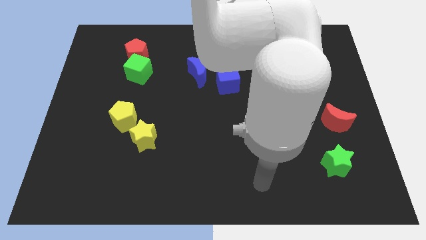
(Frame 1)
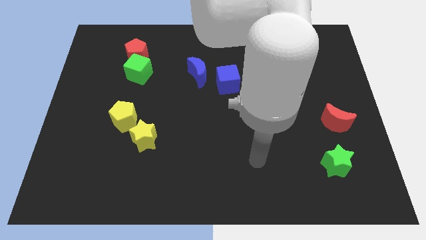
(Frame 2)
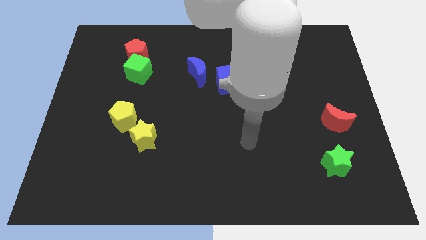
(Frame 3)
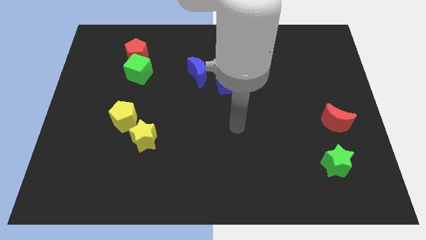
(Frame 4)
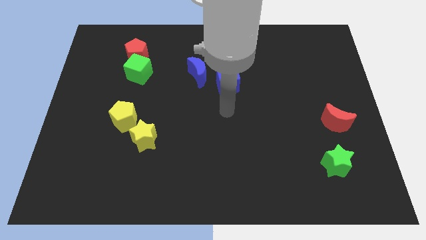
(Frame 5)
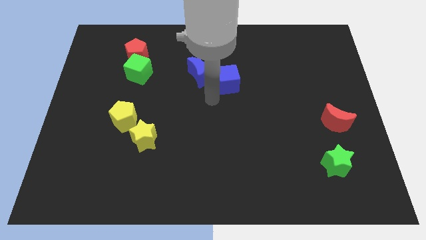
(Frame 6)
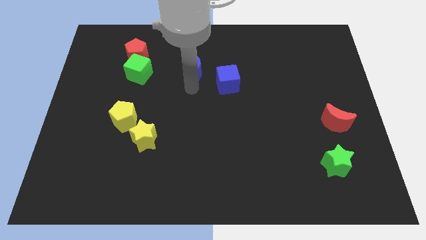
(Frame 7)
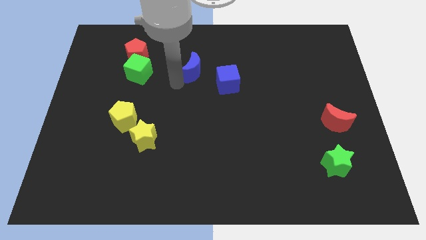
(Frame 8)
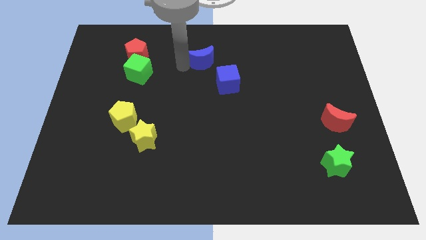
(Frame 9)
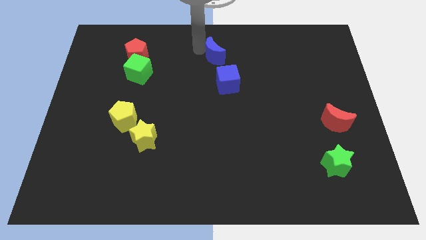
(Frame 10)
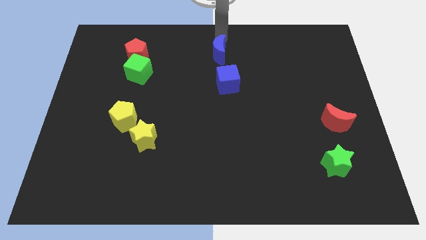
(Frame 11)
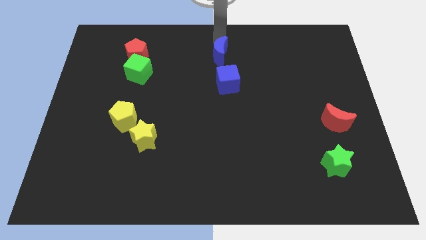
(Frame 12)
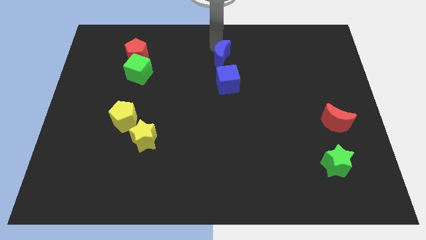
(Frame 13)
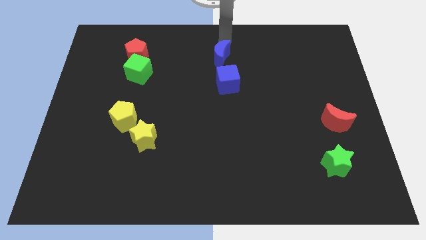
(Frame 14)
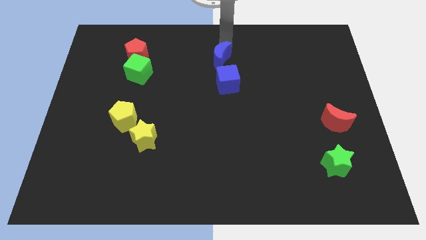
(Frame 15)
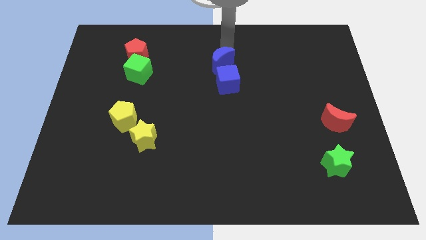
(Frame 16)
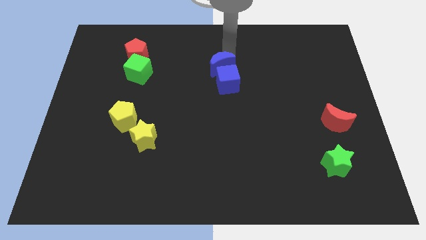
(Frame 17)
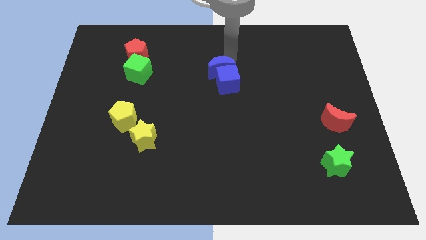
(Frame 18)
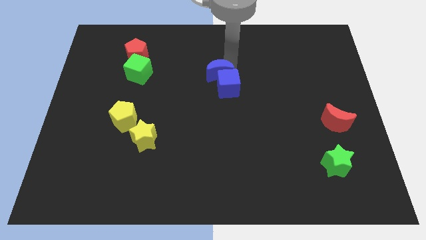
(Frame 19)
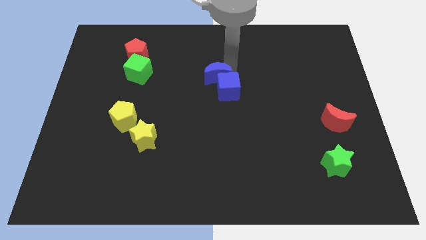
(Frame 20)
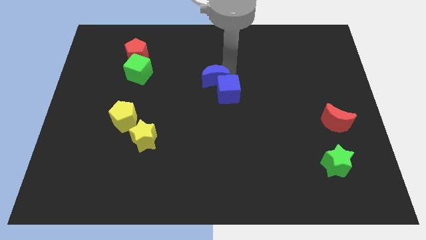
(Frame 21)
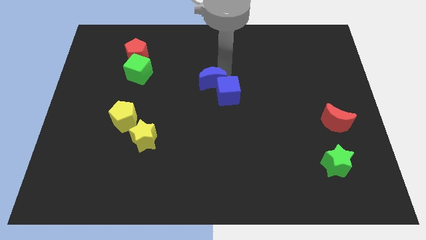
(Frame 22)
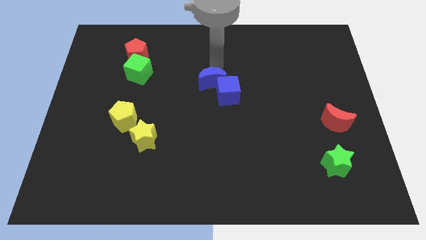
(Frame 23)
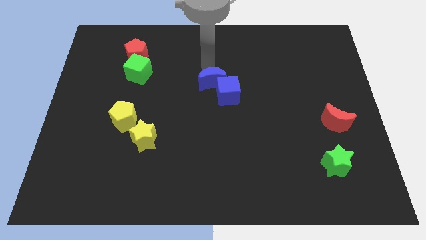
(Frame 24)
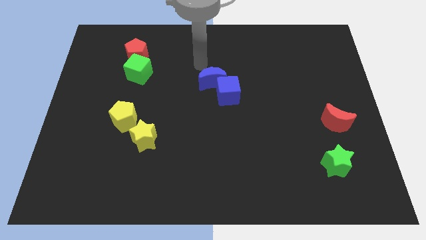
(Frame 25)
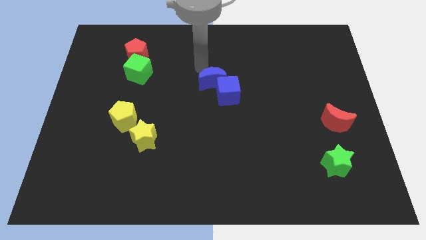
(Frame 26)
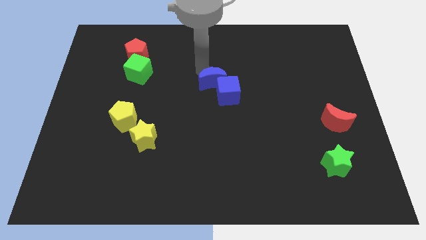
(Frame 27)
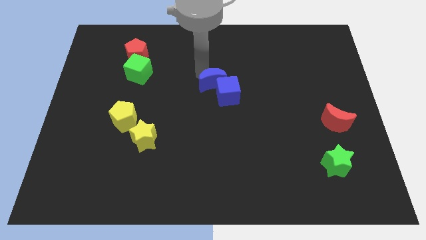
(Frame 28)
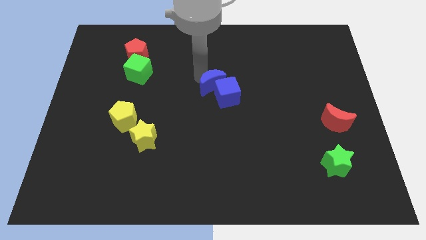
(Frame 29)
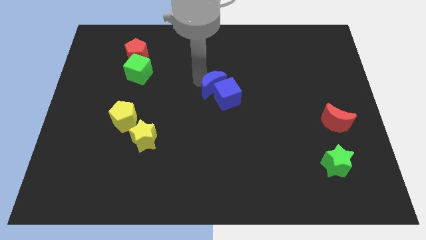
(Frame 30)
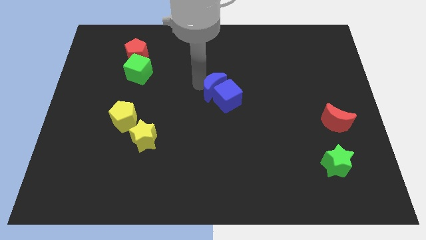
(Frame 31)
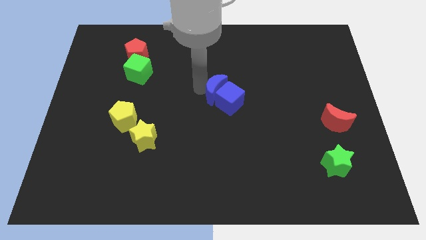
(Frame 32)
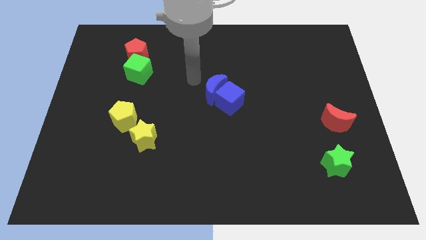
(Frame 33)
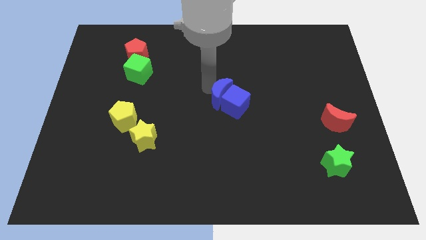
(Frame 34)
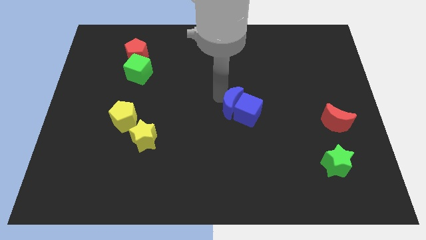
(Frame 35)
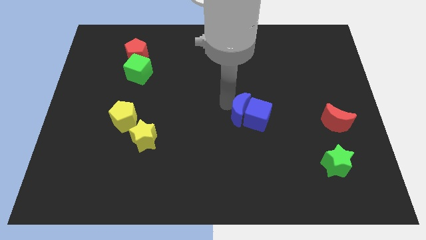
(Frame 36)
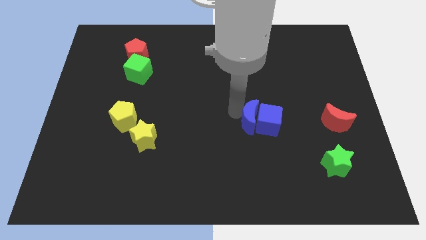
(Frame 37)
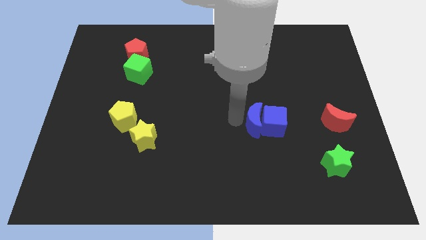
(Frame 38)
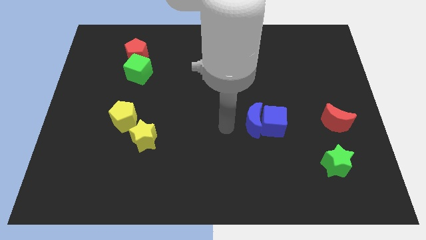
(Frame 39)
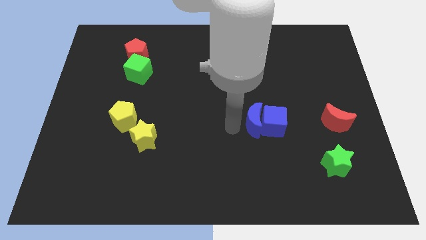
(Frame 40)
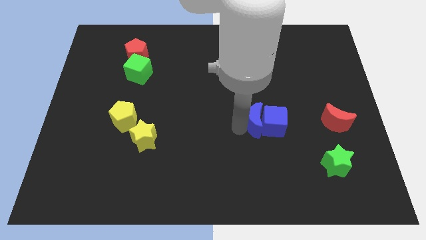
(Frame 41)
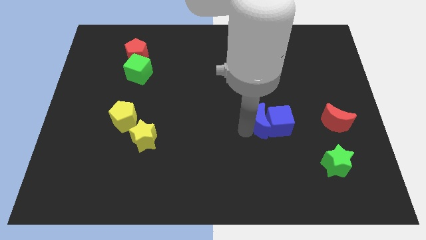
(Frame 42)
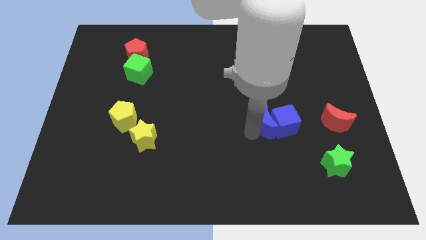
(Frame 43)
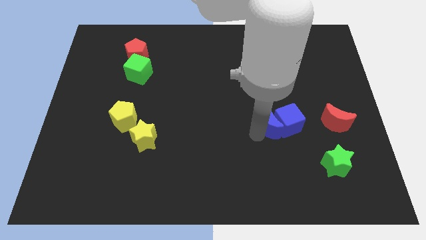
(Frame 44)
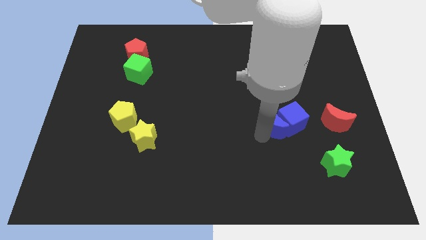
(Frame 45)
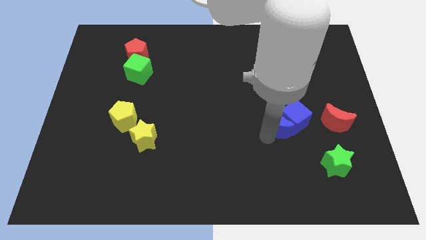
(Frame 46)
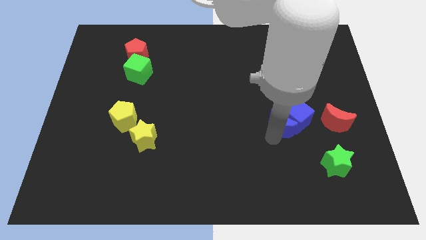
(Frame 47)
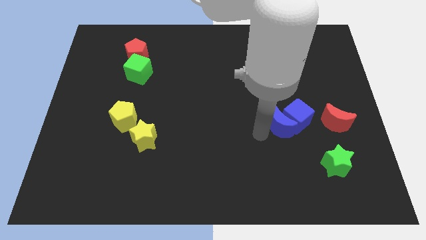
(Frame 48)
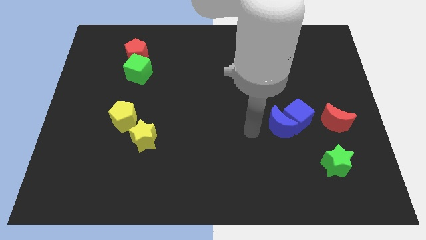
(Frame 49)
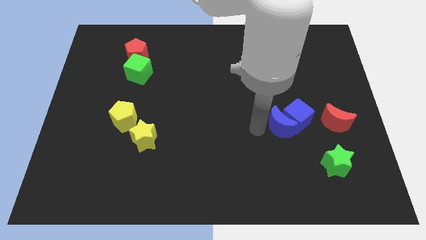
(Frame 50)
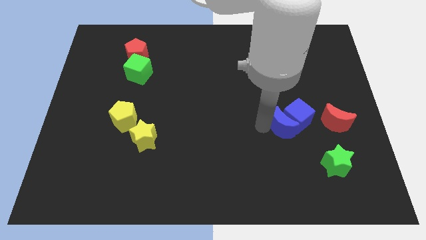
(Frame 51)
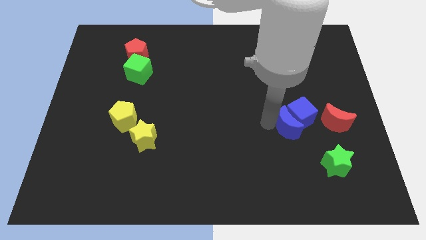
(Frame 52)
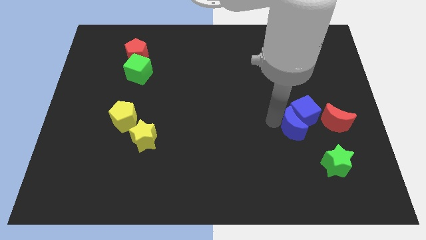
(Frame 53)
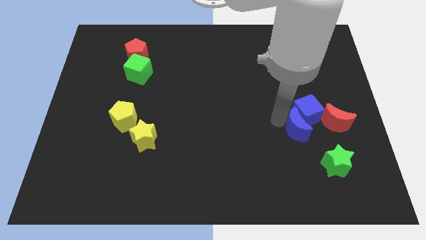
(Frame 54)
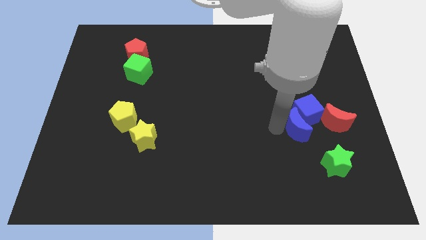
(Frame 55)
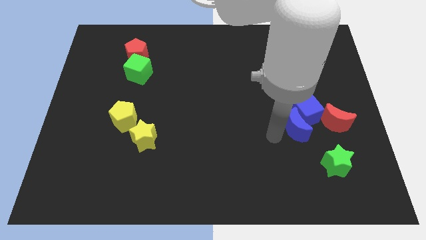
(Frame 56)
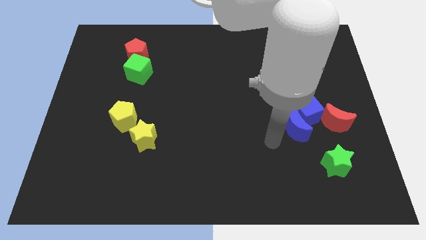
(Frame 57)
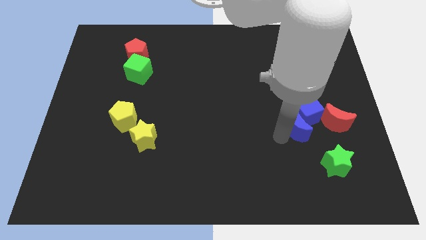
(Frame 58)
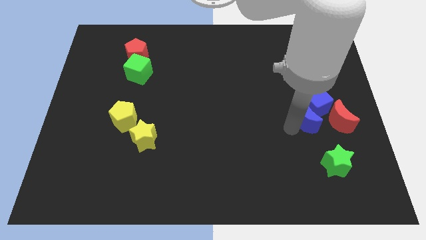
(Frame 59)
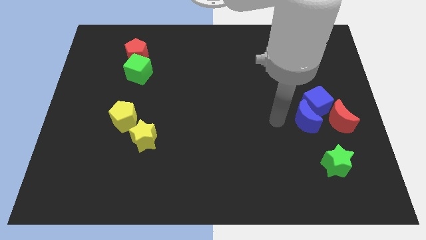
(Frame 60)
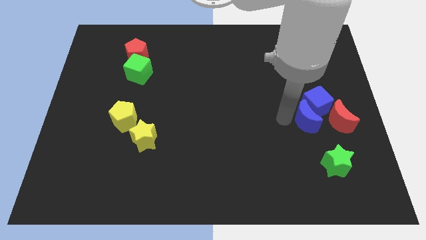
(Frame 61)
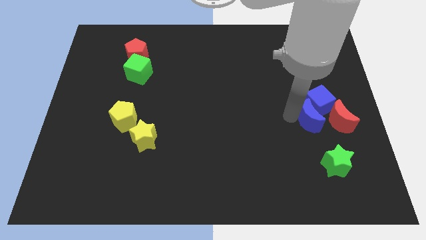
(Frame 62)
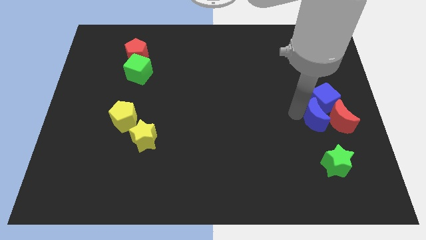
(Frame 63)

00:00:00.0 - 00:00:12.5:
slide the blue moon to the red moon

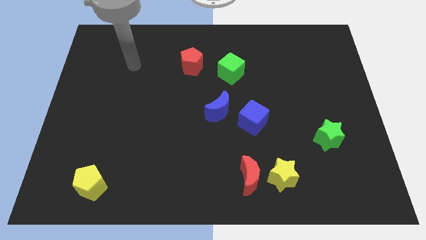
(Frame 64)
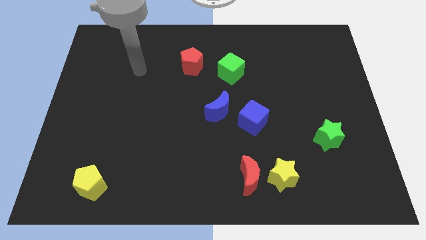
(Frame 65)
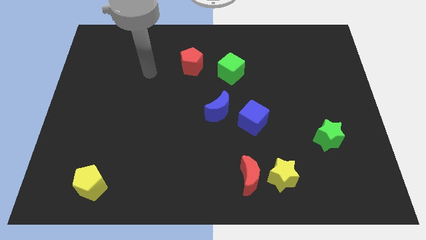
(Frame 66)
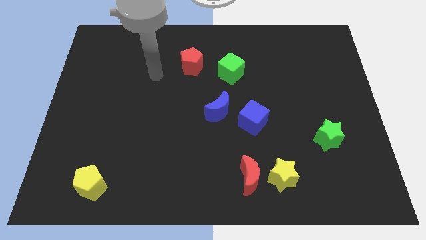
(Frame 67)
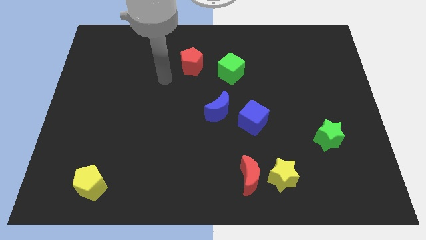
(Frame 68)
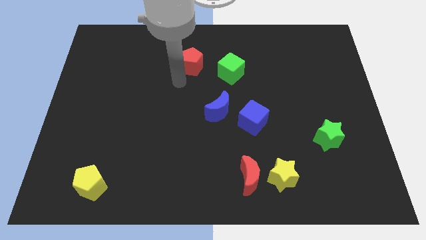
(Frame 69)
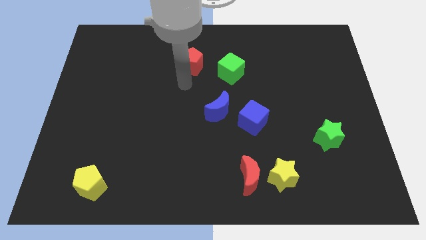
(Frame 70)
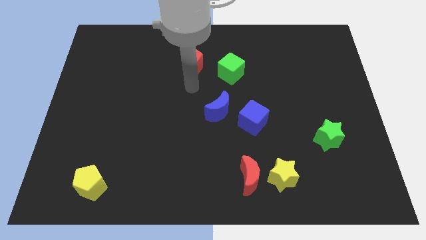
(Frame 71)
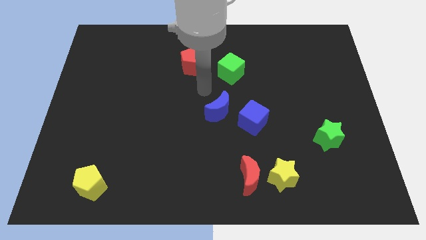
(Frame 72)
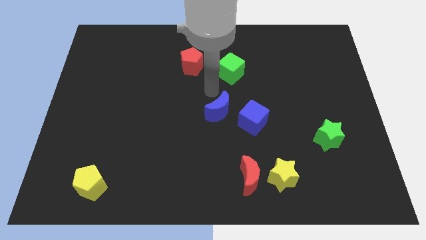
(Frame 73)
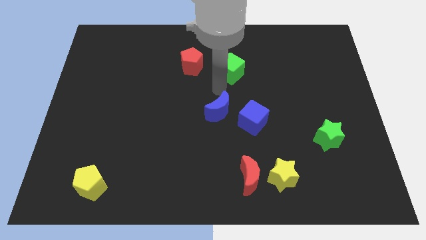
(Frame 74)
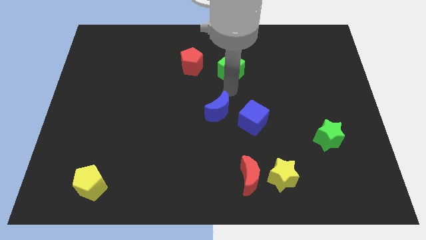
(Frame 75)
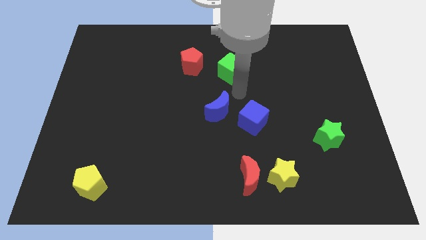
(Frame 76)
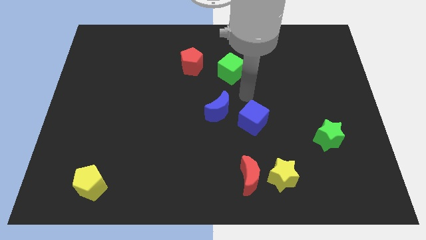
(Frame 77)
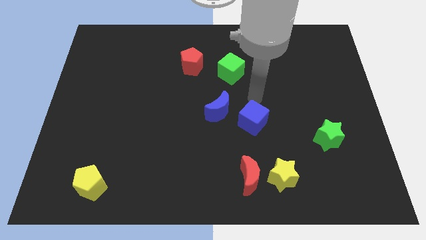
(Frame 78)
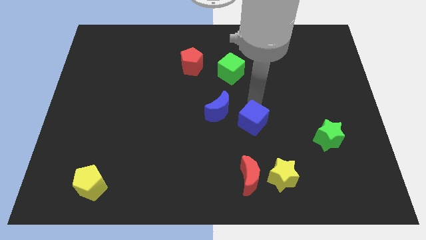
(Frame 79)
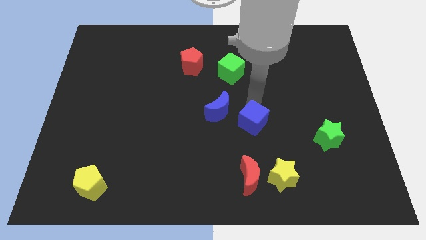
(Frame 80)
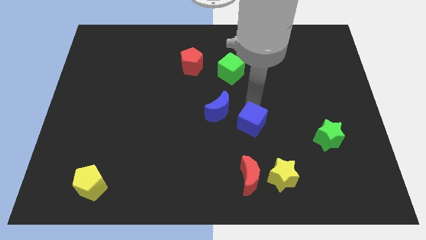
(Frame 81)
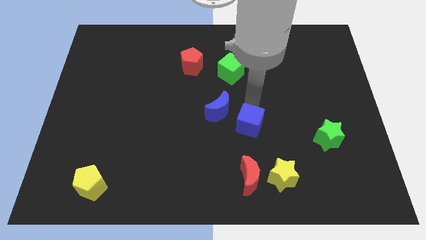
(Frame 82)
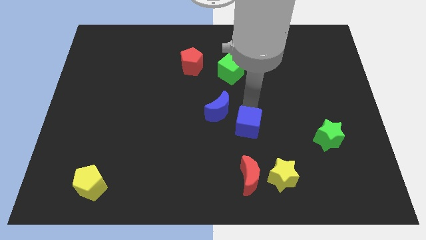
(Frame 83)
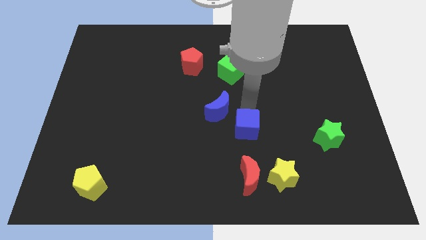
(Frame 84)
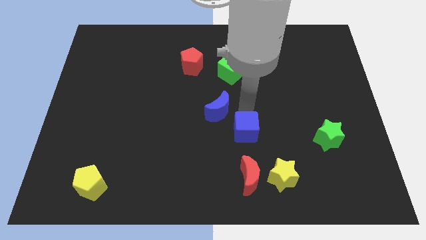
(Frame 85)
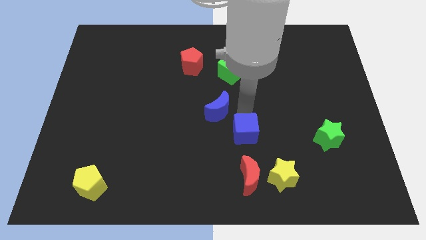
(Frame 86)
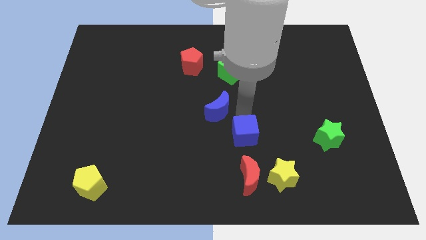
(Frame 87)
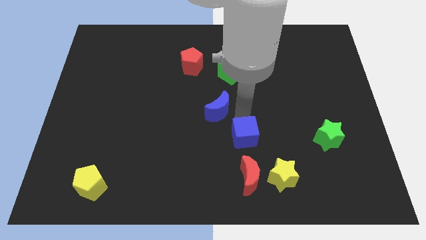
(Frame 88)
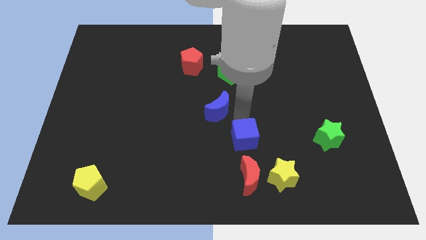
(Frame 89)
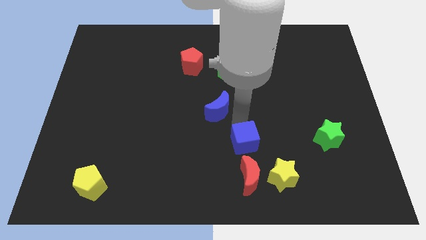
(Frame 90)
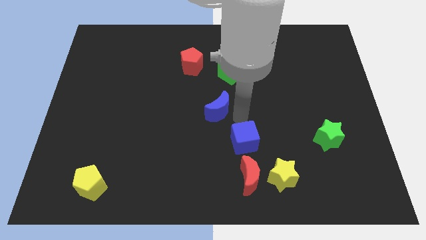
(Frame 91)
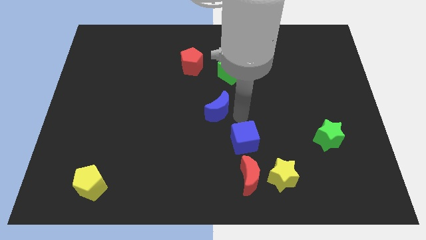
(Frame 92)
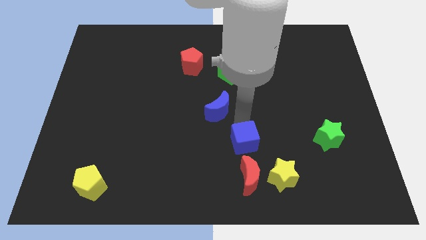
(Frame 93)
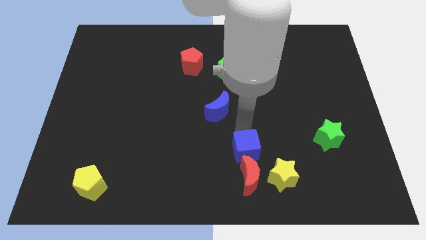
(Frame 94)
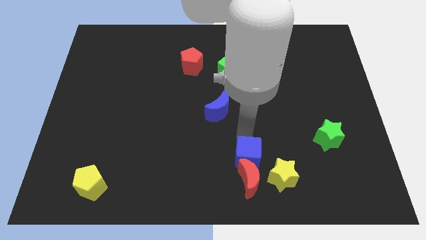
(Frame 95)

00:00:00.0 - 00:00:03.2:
push the blue cube close to the red moon
